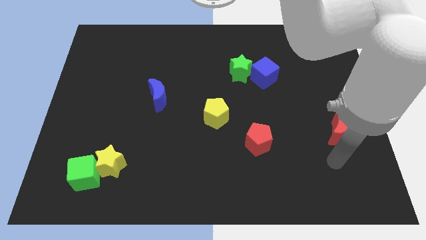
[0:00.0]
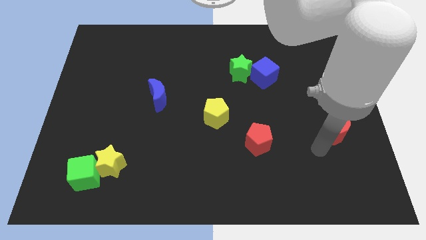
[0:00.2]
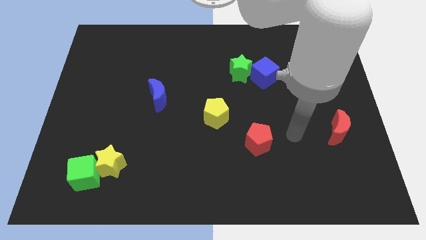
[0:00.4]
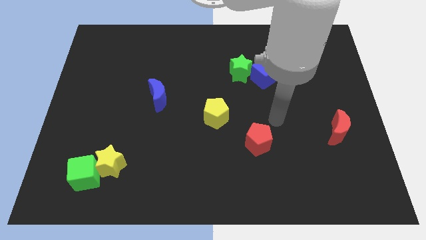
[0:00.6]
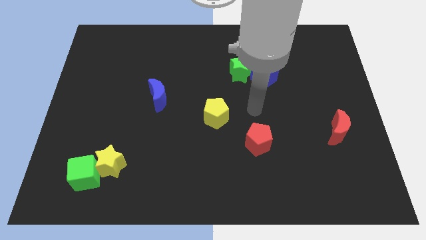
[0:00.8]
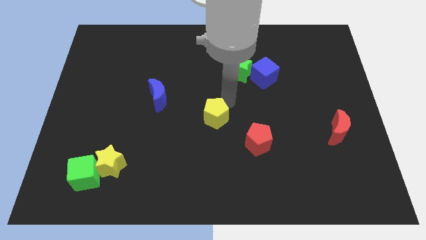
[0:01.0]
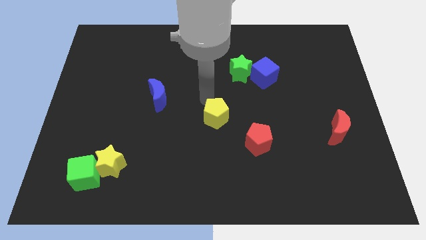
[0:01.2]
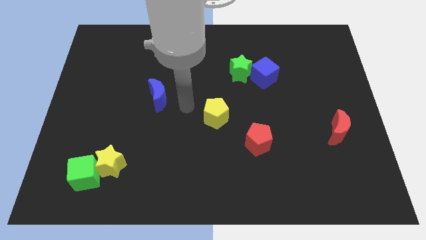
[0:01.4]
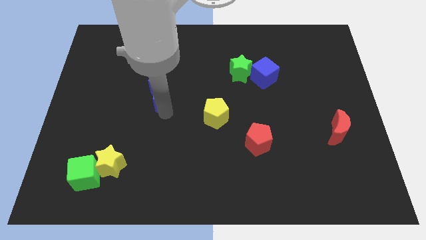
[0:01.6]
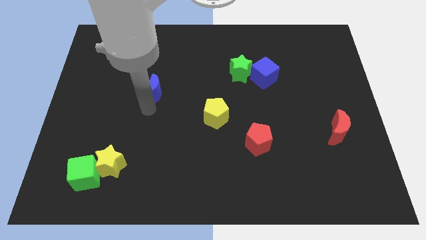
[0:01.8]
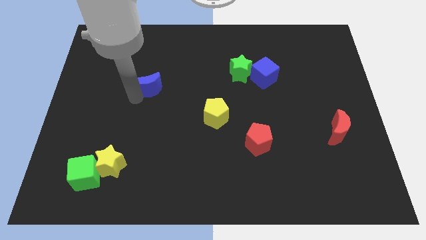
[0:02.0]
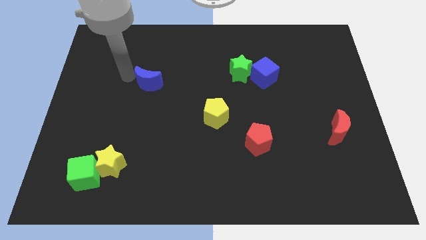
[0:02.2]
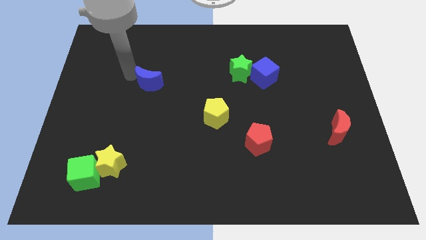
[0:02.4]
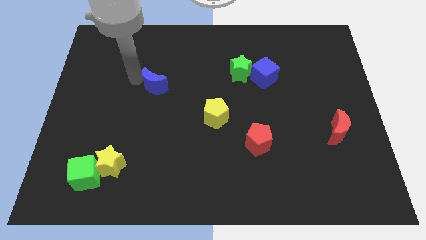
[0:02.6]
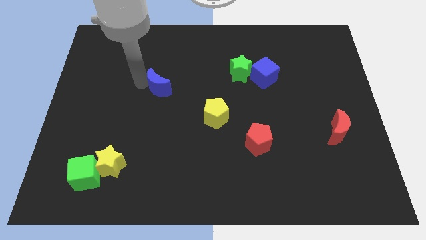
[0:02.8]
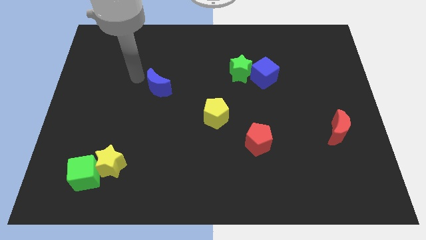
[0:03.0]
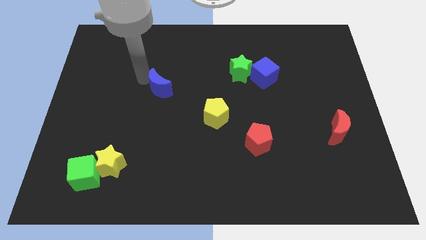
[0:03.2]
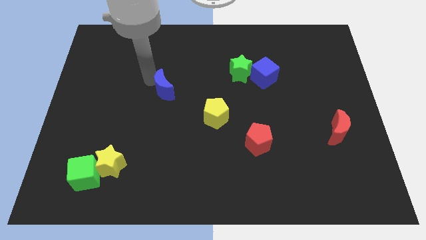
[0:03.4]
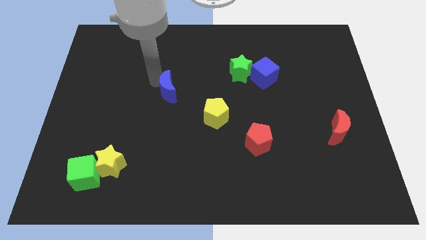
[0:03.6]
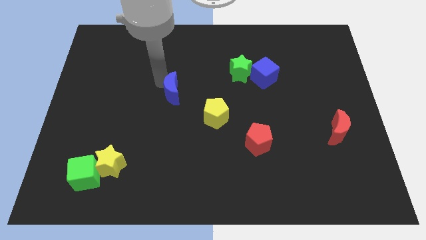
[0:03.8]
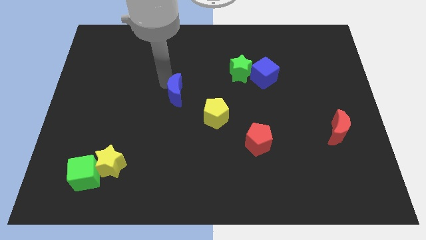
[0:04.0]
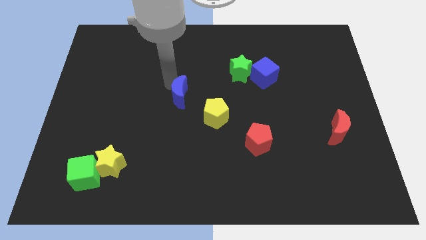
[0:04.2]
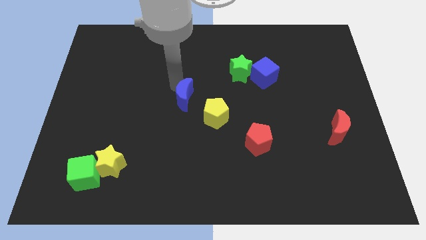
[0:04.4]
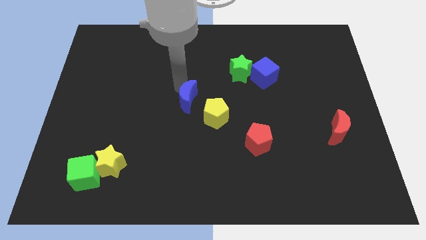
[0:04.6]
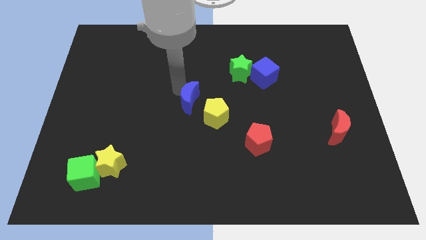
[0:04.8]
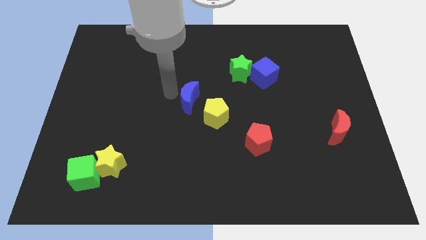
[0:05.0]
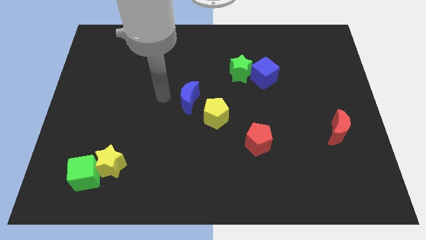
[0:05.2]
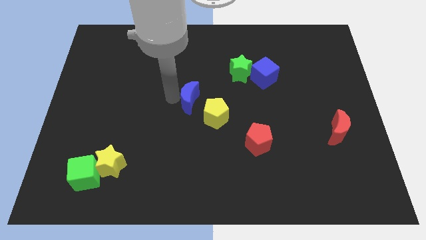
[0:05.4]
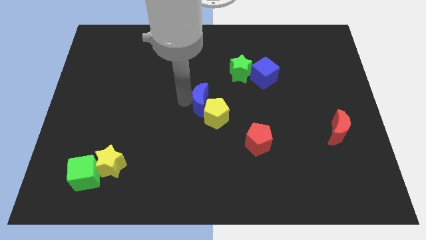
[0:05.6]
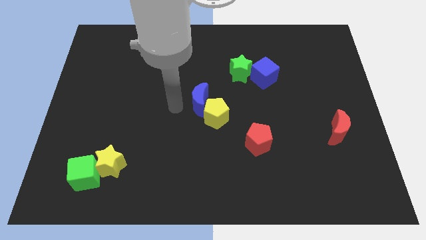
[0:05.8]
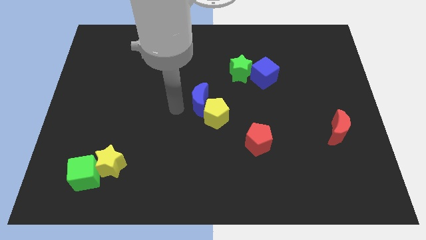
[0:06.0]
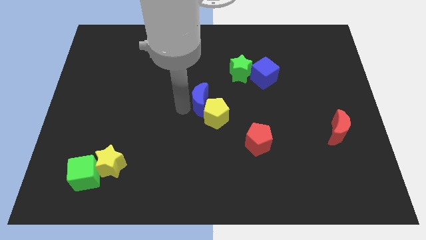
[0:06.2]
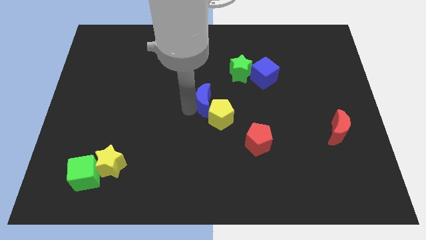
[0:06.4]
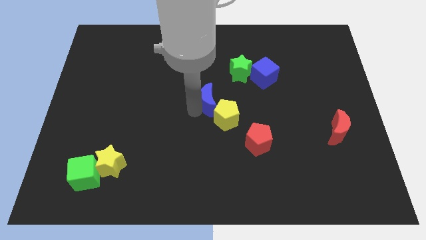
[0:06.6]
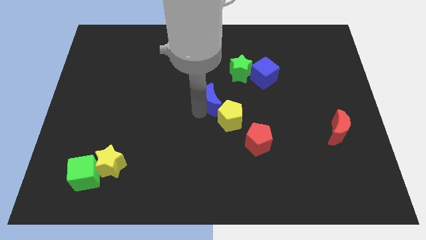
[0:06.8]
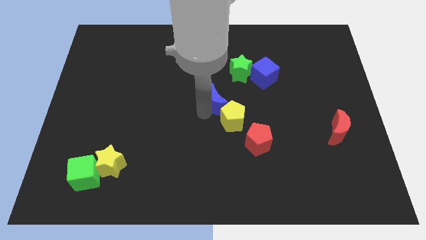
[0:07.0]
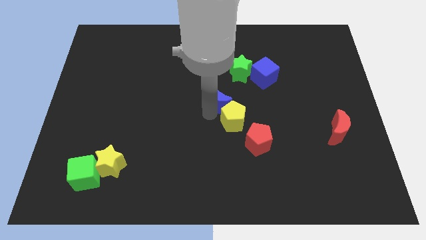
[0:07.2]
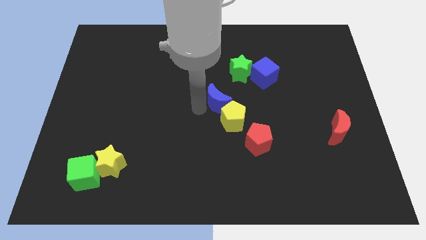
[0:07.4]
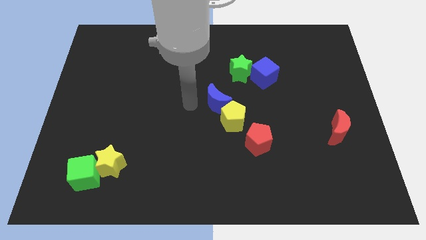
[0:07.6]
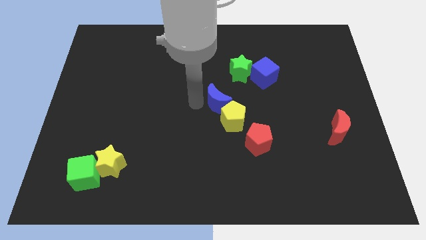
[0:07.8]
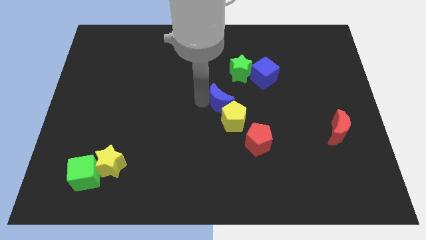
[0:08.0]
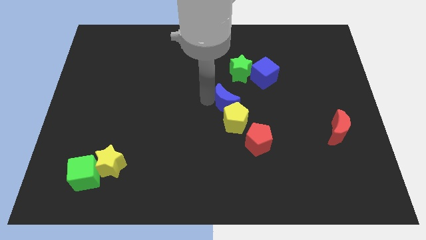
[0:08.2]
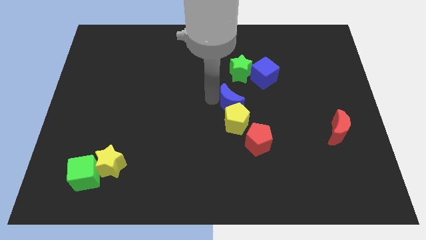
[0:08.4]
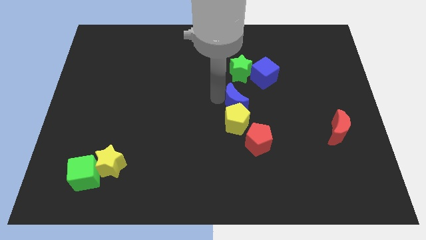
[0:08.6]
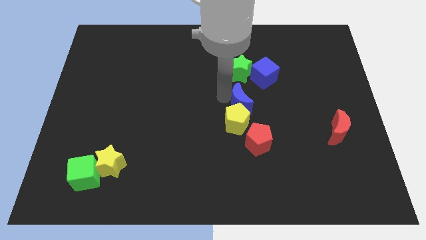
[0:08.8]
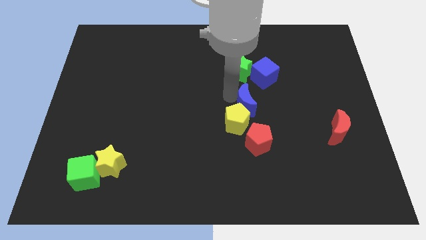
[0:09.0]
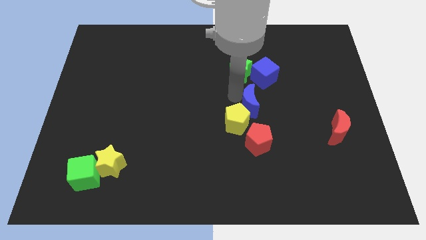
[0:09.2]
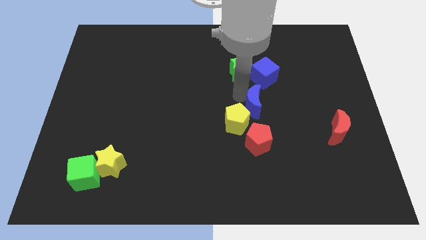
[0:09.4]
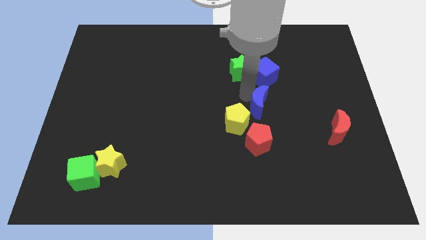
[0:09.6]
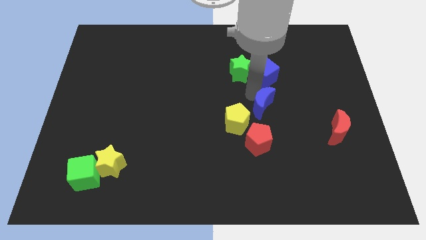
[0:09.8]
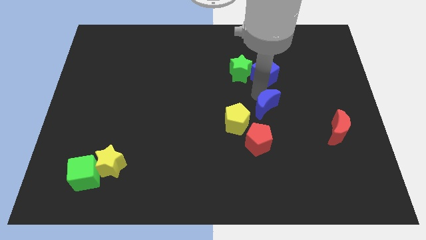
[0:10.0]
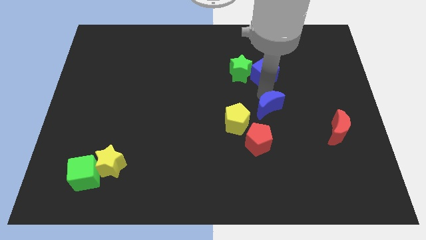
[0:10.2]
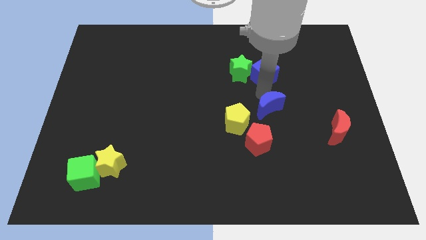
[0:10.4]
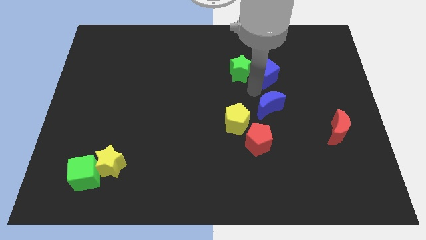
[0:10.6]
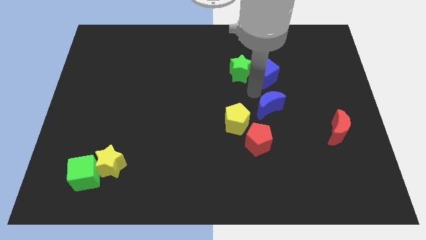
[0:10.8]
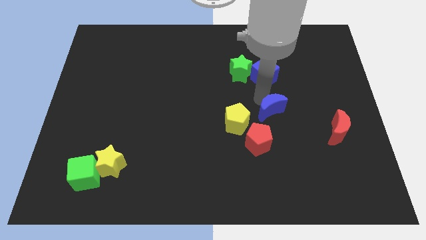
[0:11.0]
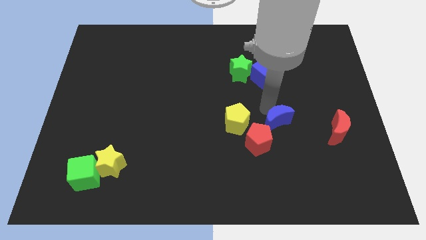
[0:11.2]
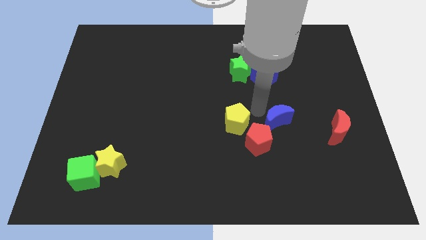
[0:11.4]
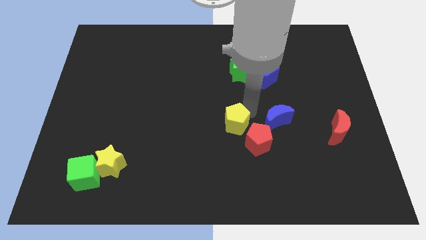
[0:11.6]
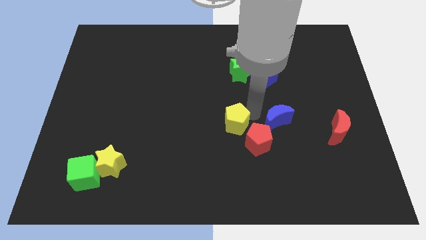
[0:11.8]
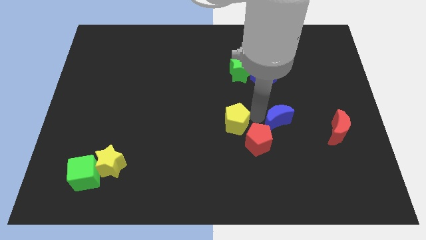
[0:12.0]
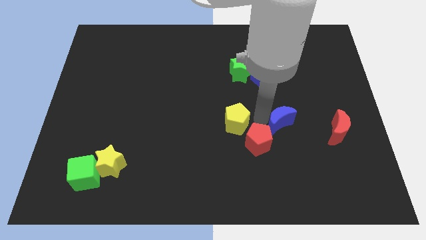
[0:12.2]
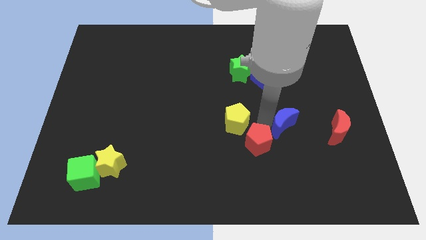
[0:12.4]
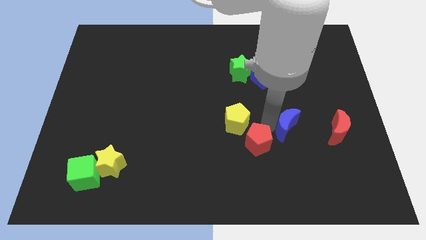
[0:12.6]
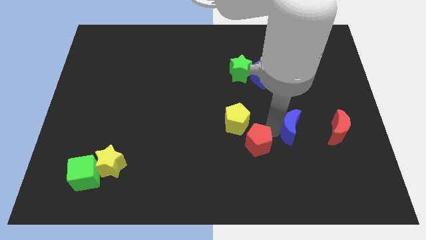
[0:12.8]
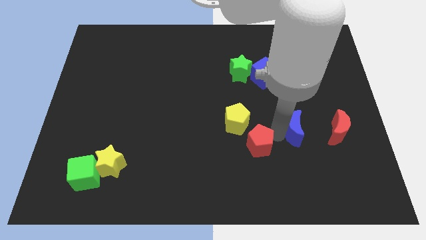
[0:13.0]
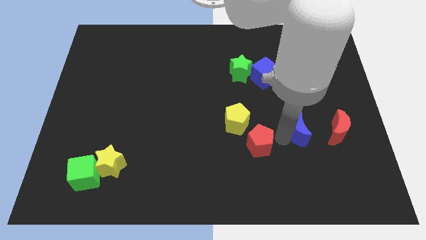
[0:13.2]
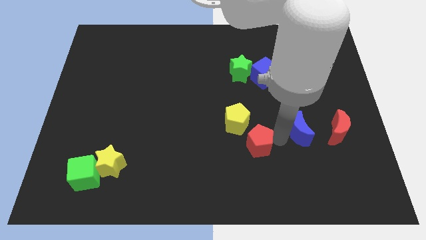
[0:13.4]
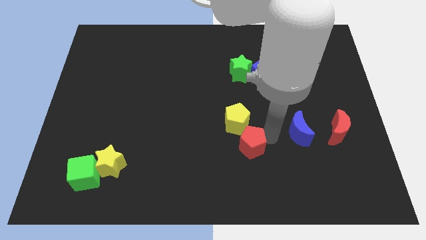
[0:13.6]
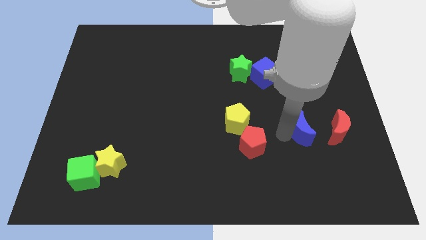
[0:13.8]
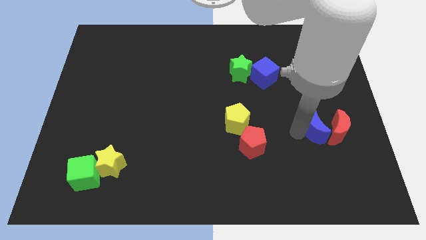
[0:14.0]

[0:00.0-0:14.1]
slide the blue moon to the red moon
